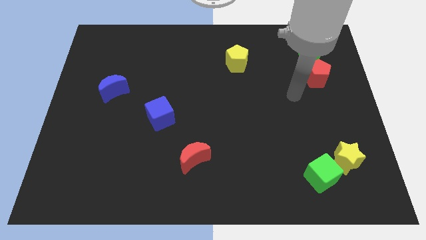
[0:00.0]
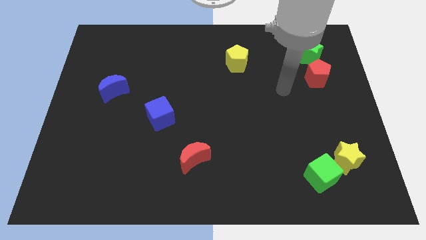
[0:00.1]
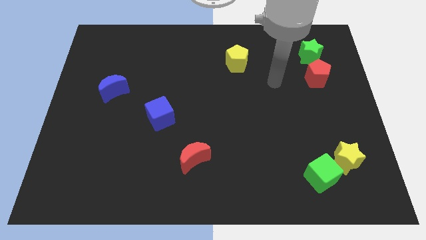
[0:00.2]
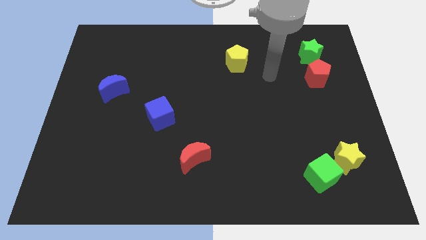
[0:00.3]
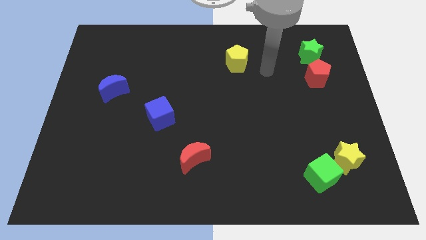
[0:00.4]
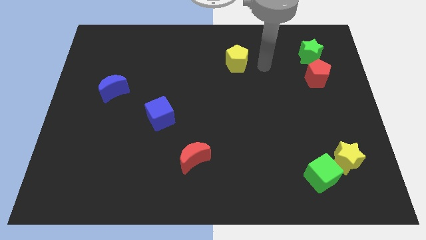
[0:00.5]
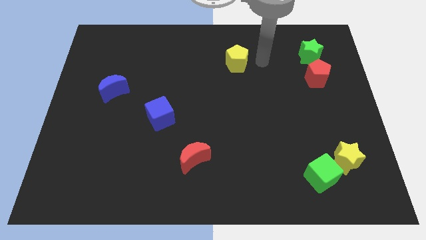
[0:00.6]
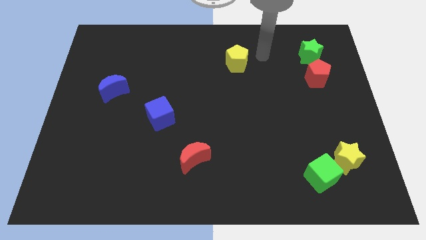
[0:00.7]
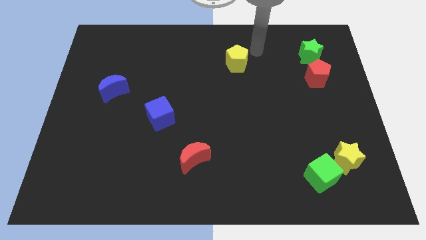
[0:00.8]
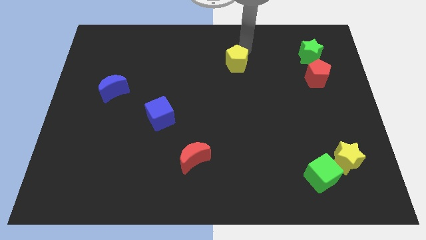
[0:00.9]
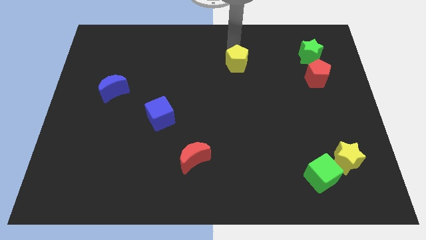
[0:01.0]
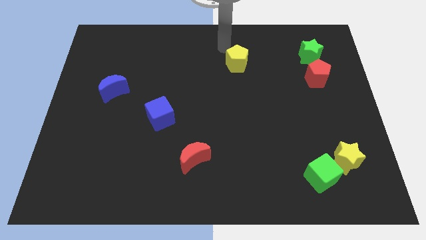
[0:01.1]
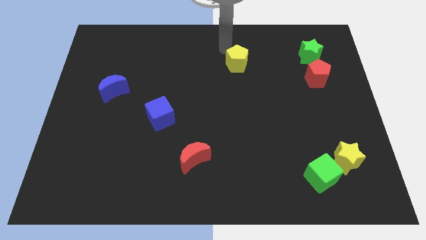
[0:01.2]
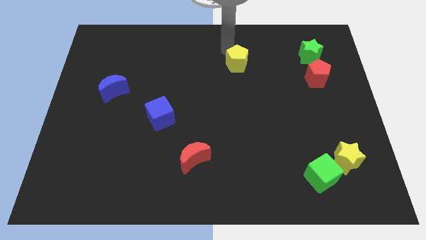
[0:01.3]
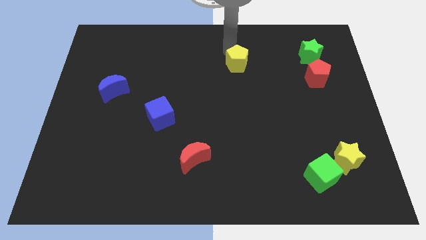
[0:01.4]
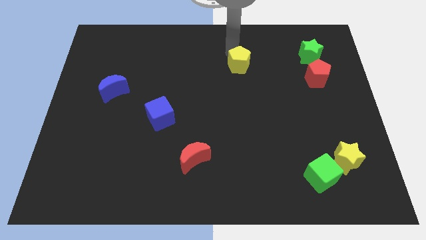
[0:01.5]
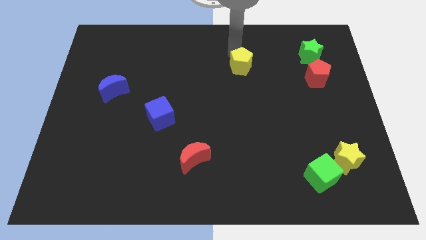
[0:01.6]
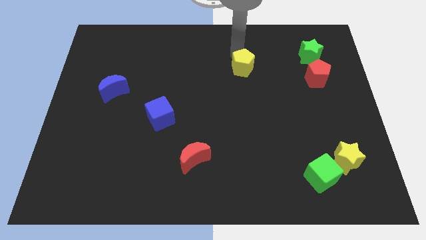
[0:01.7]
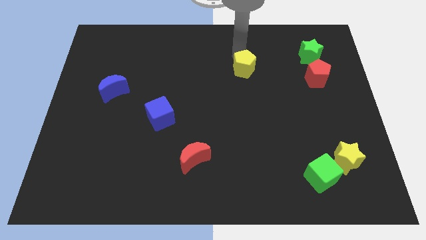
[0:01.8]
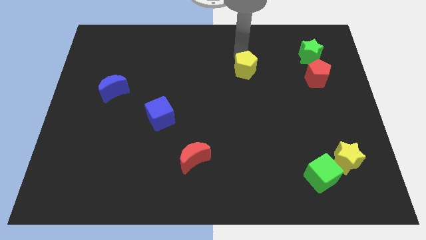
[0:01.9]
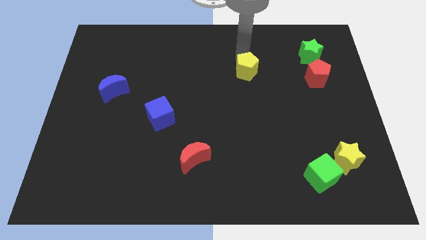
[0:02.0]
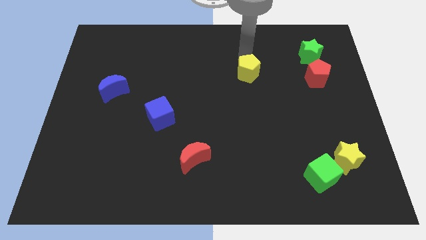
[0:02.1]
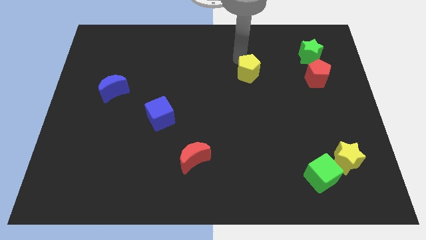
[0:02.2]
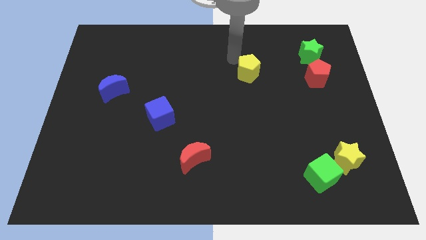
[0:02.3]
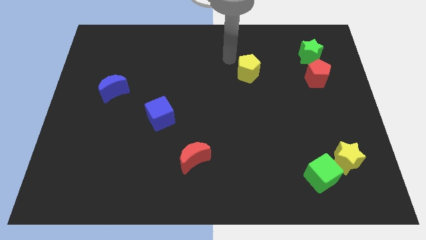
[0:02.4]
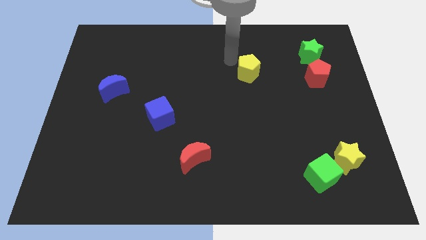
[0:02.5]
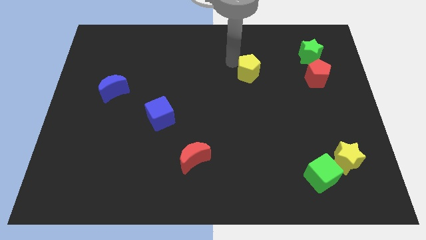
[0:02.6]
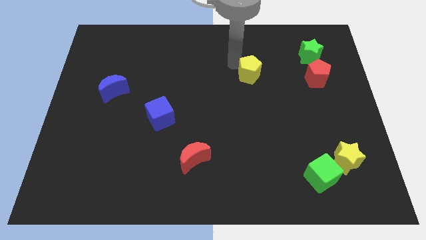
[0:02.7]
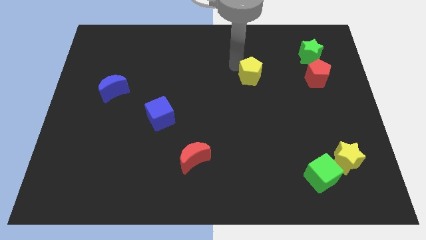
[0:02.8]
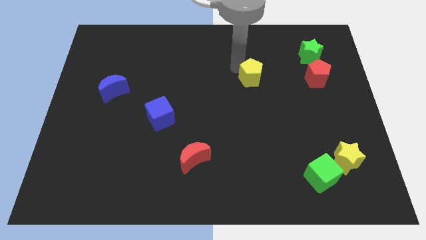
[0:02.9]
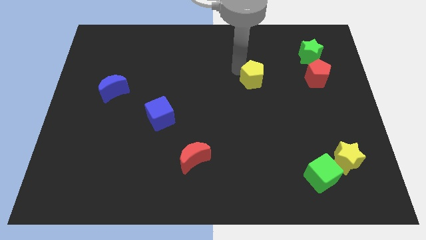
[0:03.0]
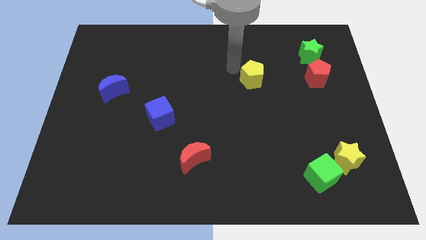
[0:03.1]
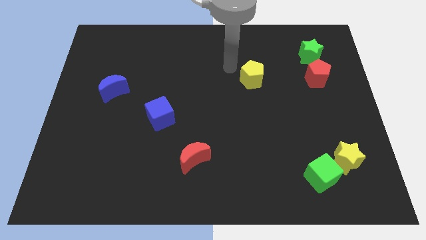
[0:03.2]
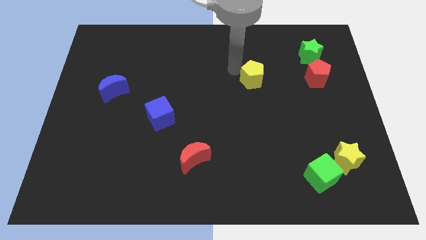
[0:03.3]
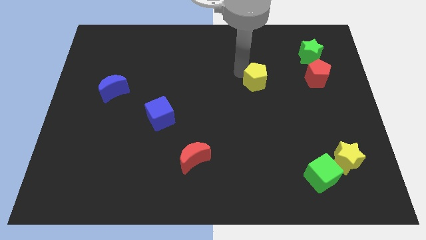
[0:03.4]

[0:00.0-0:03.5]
slightly slide the yellow pentagon down and right diagonally

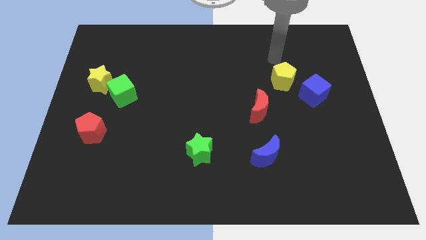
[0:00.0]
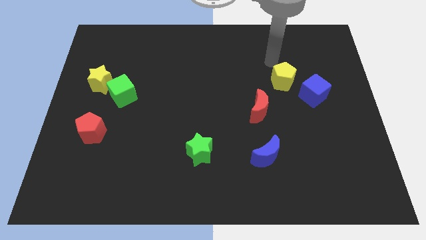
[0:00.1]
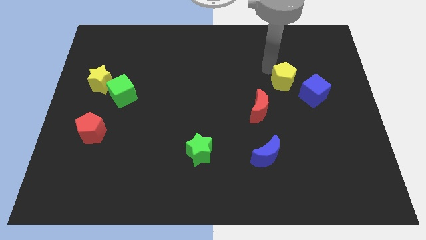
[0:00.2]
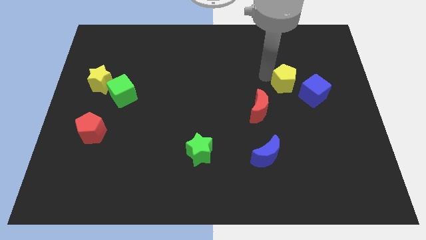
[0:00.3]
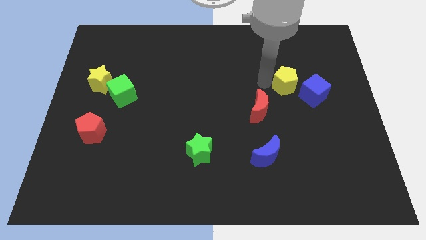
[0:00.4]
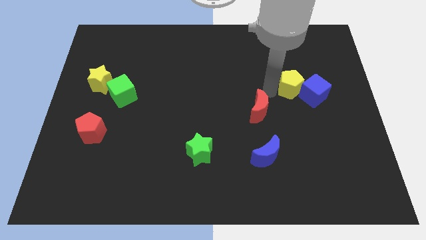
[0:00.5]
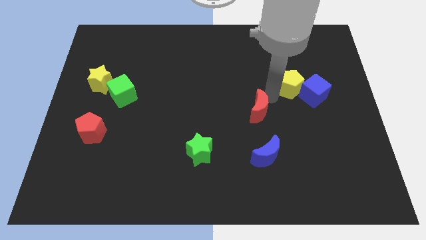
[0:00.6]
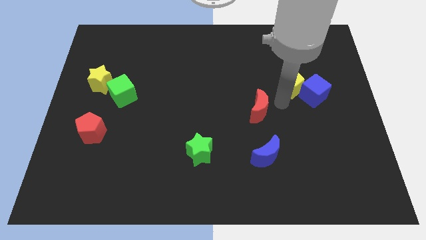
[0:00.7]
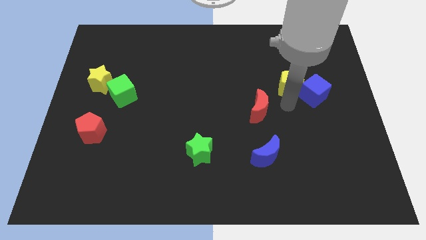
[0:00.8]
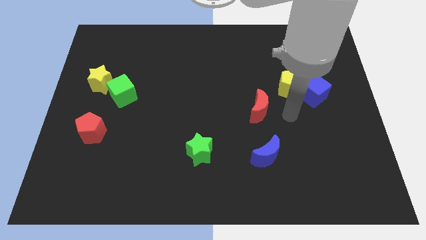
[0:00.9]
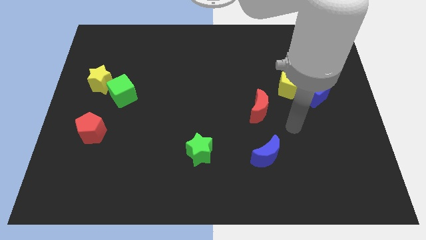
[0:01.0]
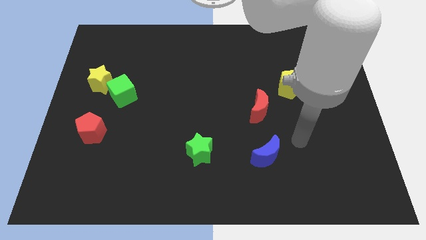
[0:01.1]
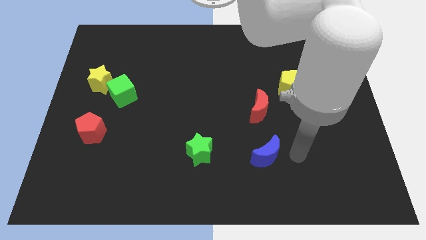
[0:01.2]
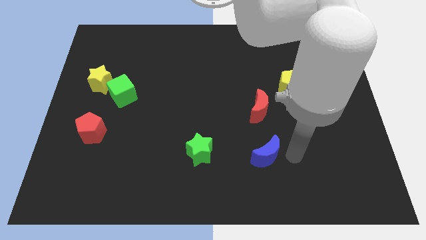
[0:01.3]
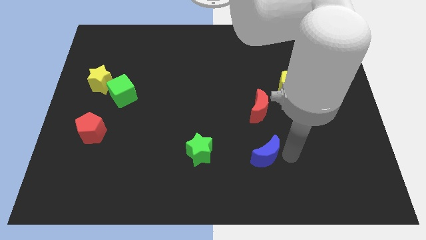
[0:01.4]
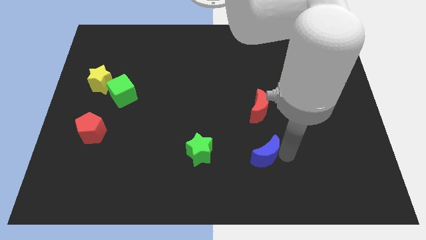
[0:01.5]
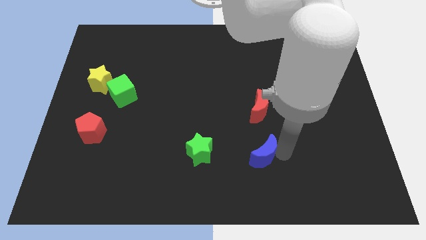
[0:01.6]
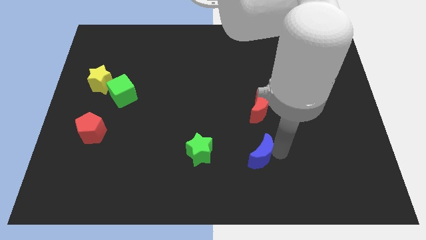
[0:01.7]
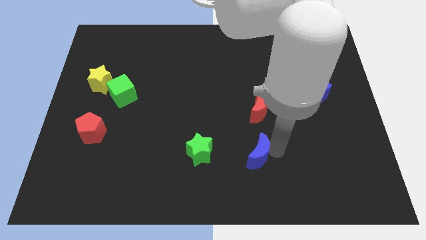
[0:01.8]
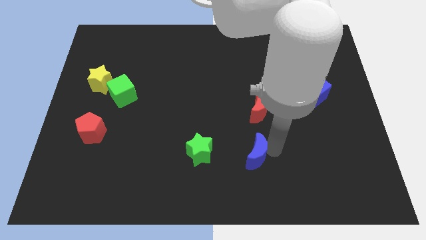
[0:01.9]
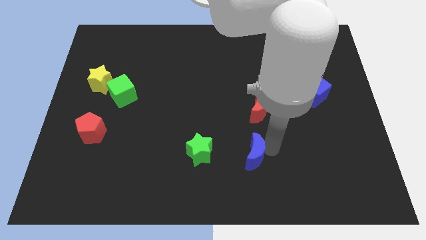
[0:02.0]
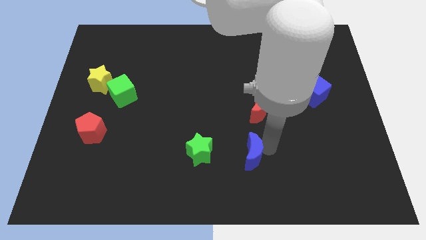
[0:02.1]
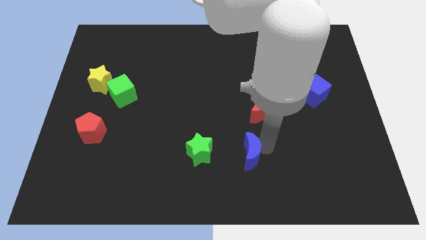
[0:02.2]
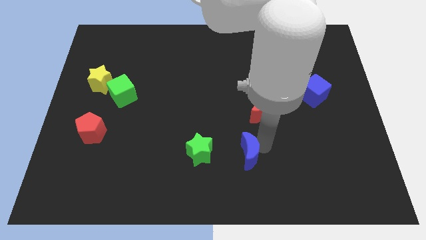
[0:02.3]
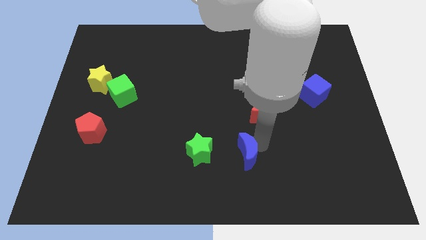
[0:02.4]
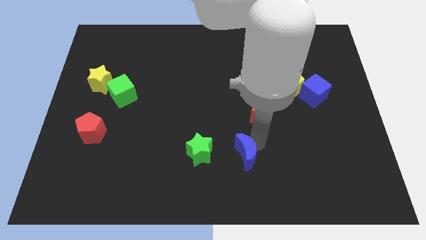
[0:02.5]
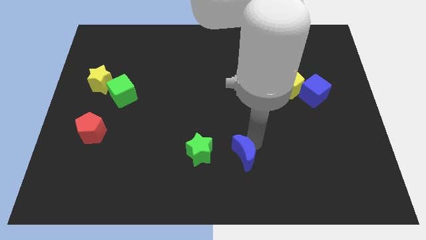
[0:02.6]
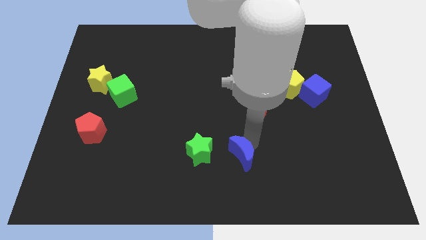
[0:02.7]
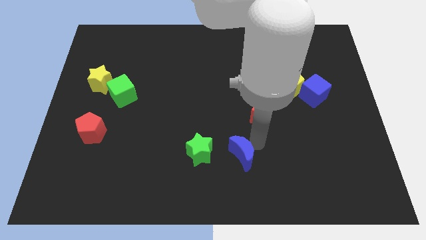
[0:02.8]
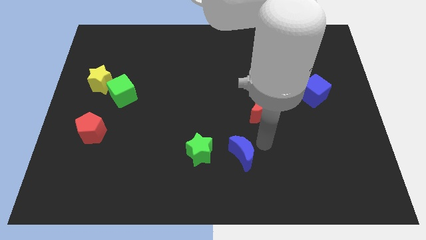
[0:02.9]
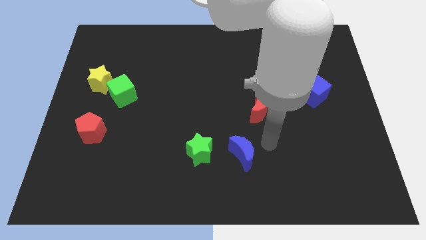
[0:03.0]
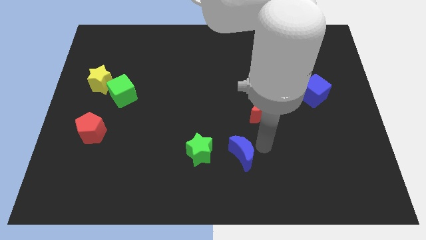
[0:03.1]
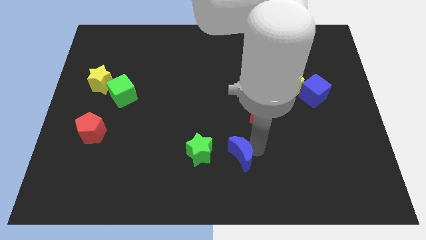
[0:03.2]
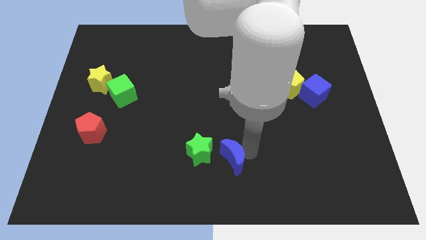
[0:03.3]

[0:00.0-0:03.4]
slightly slide the blue moon to the left

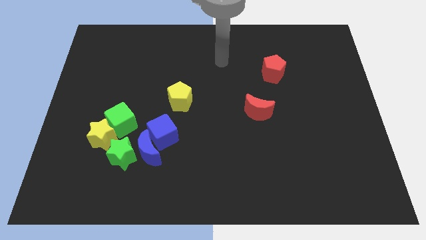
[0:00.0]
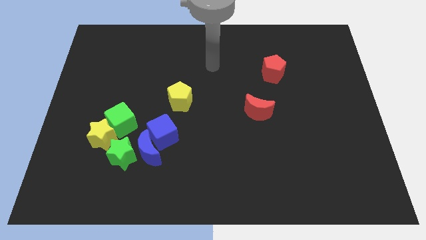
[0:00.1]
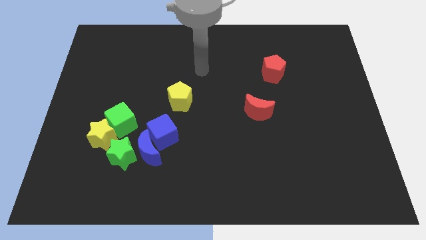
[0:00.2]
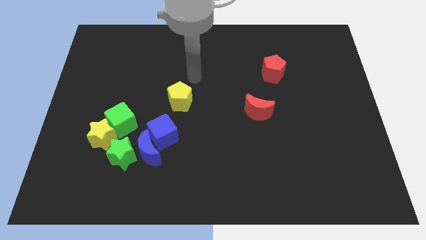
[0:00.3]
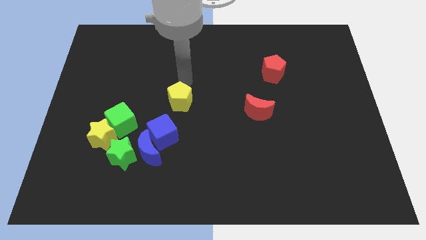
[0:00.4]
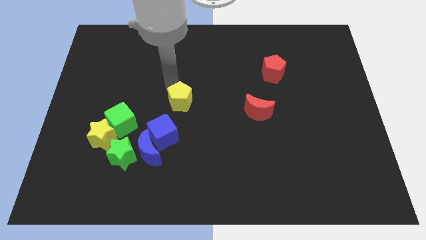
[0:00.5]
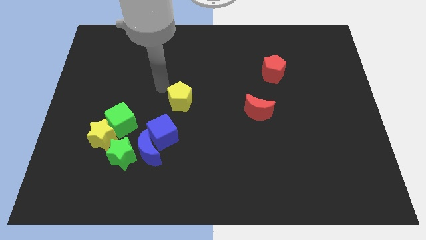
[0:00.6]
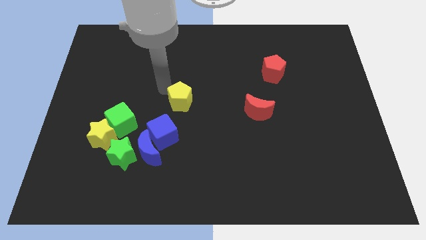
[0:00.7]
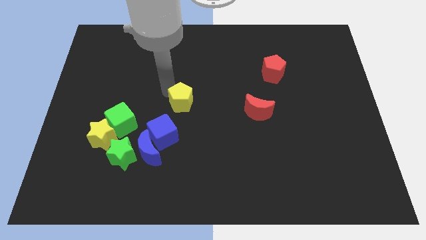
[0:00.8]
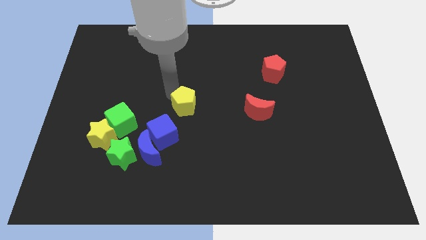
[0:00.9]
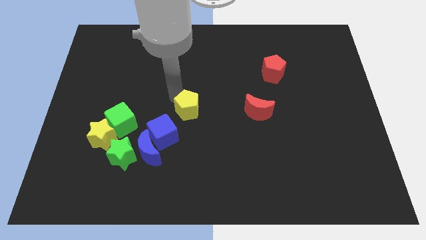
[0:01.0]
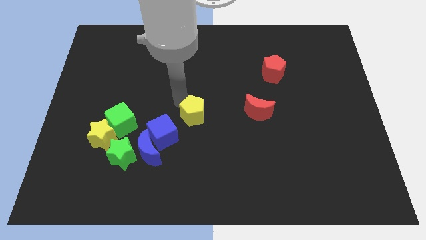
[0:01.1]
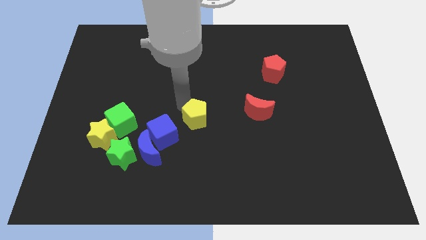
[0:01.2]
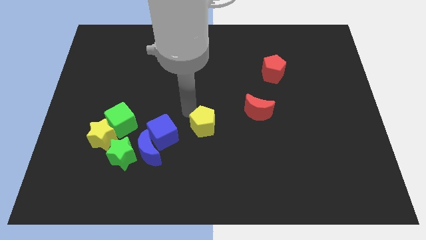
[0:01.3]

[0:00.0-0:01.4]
slide the yellow pentagon diagonally downwards and to the right a bit

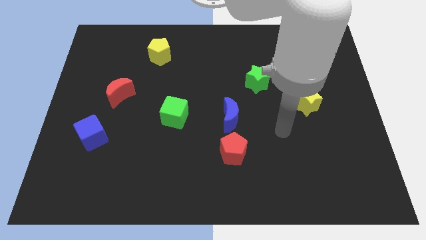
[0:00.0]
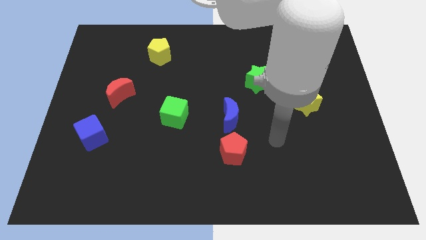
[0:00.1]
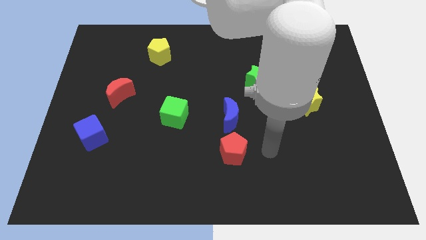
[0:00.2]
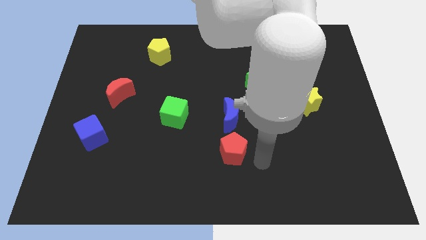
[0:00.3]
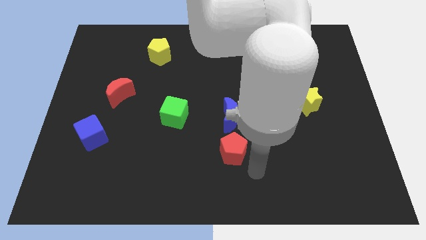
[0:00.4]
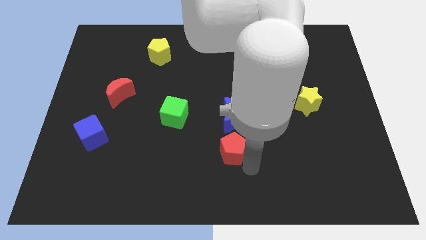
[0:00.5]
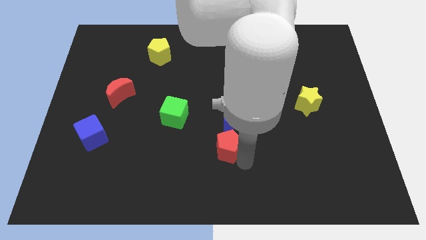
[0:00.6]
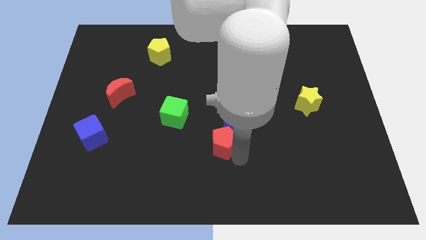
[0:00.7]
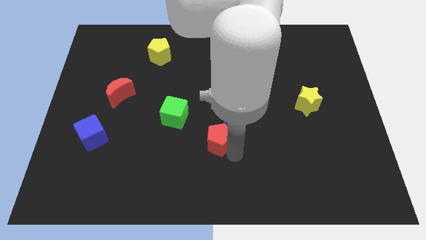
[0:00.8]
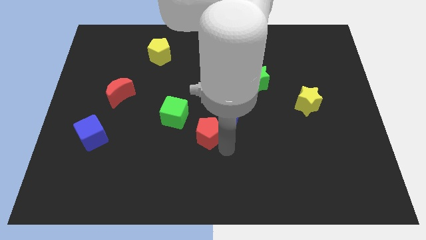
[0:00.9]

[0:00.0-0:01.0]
move the red pentagon a bit upwards and then to the left
